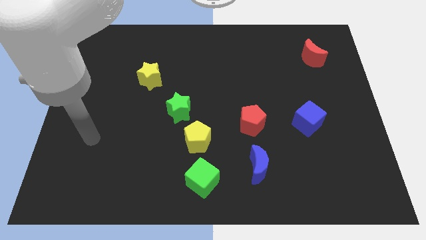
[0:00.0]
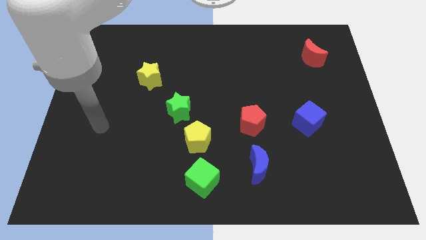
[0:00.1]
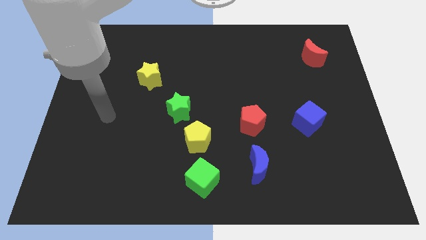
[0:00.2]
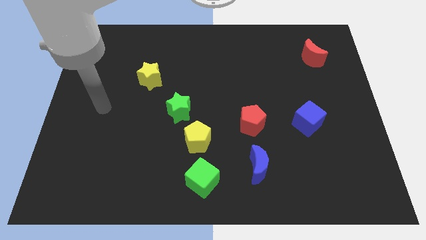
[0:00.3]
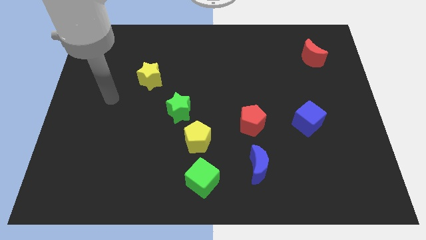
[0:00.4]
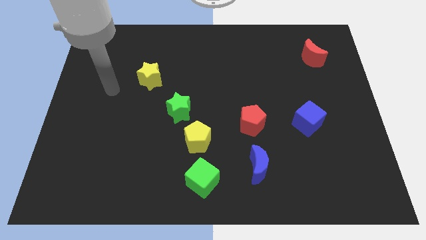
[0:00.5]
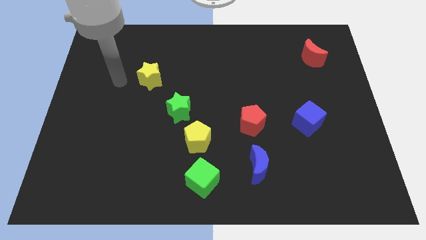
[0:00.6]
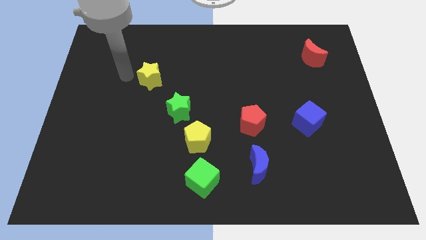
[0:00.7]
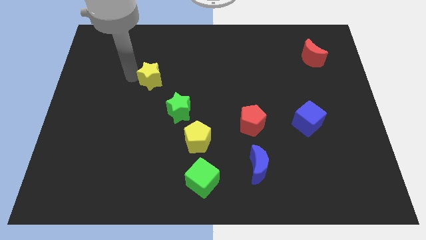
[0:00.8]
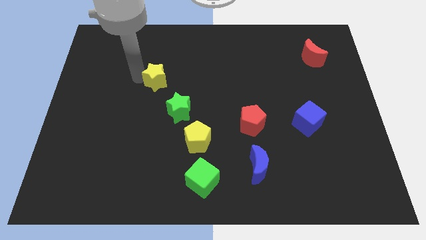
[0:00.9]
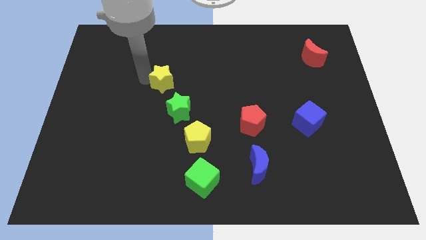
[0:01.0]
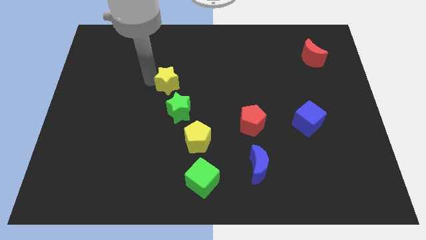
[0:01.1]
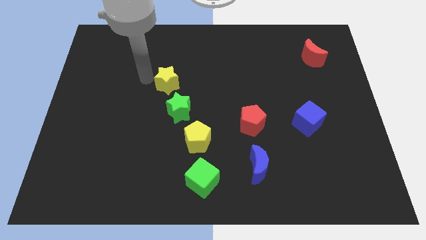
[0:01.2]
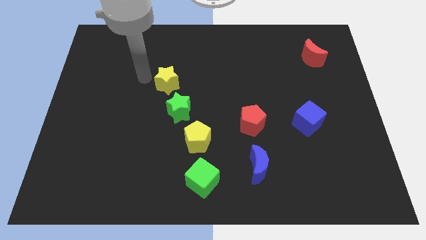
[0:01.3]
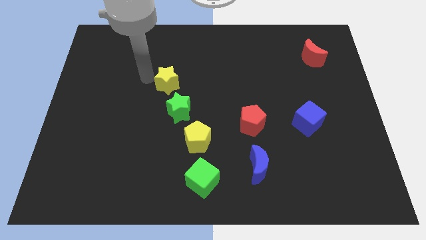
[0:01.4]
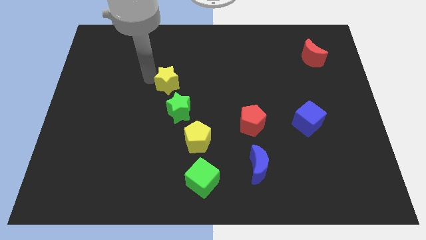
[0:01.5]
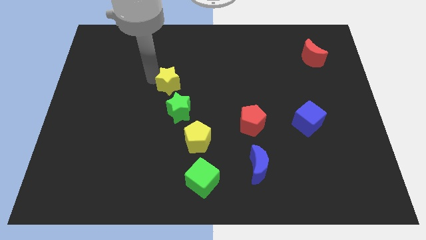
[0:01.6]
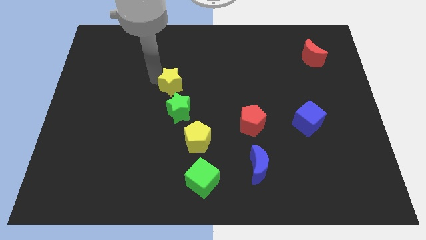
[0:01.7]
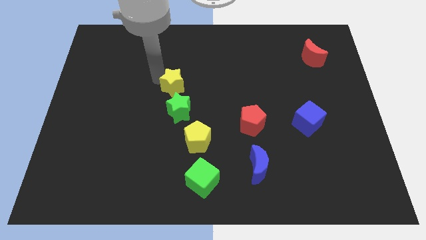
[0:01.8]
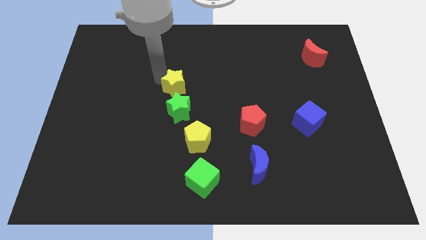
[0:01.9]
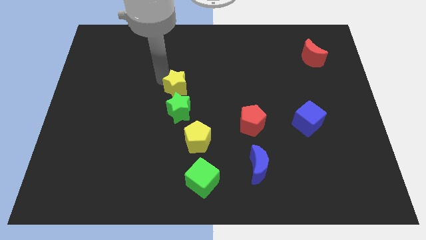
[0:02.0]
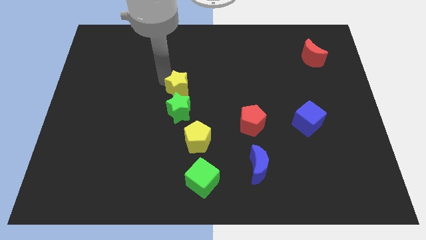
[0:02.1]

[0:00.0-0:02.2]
slightly slide the yellow star diagonally down and right

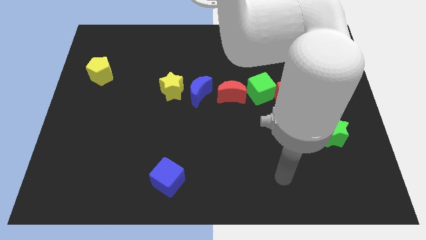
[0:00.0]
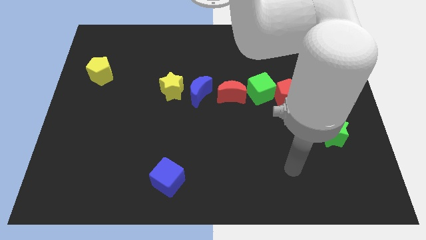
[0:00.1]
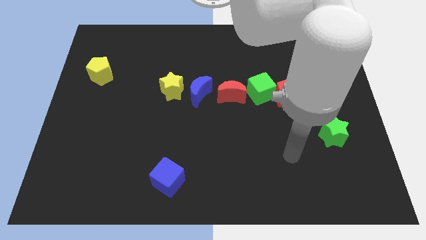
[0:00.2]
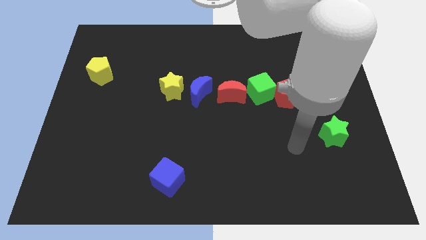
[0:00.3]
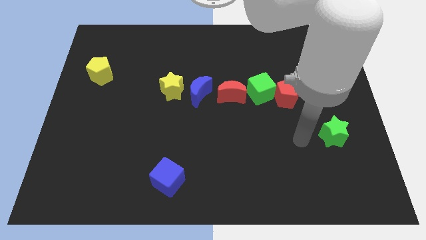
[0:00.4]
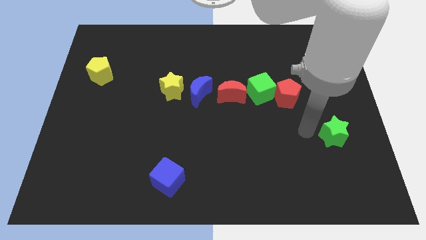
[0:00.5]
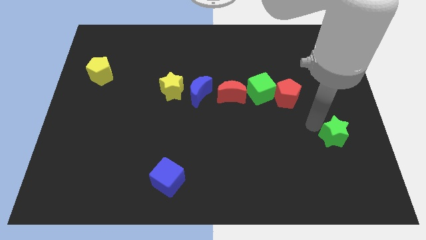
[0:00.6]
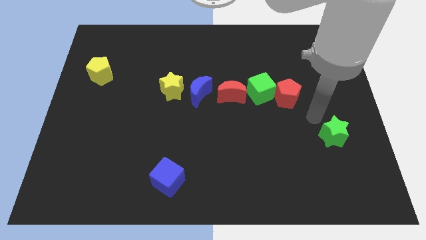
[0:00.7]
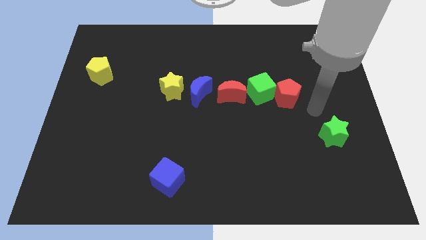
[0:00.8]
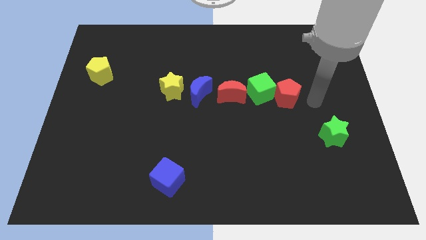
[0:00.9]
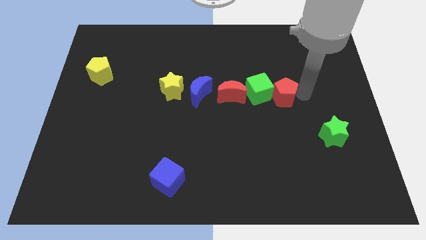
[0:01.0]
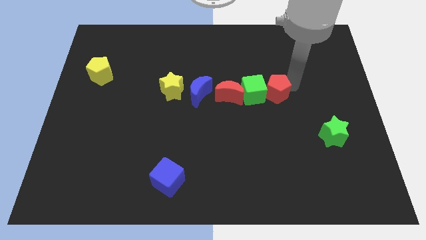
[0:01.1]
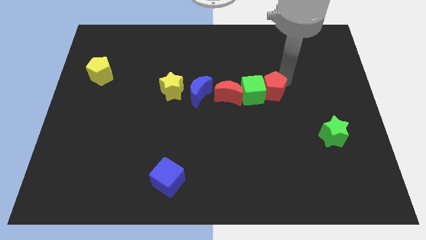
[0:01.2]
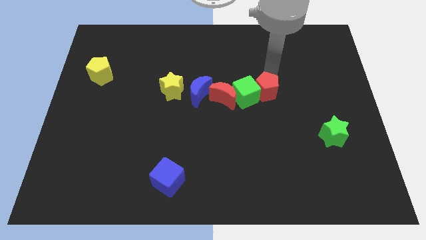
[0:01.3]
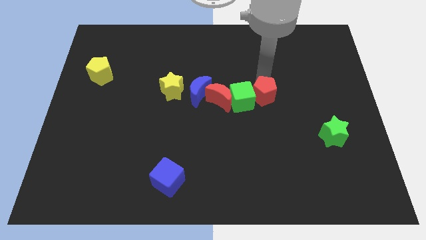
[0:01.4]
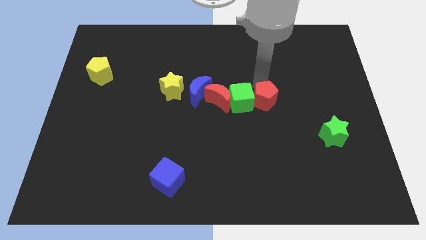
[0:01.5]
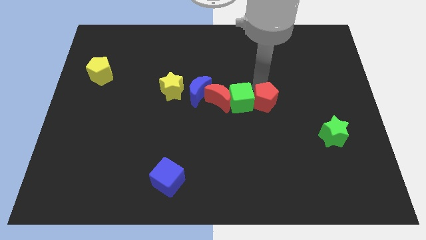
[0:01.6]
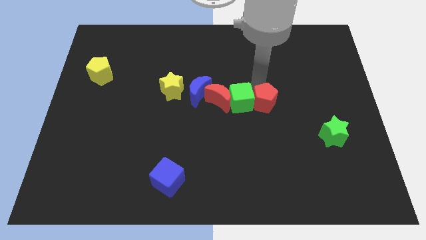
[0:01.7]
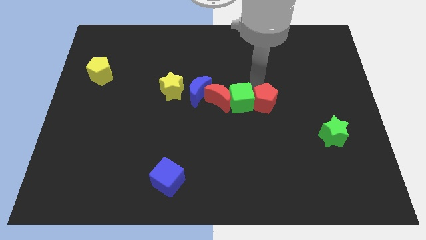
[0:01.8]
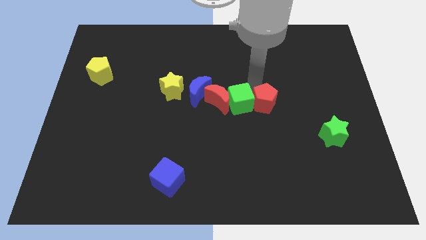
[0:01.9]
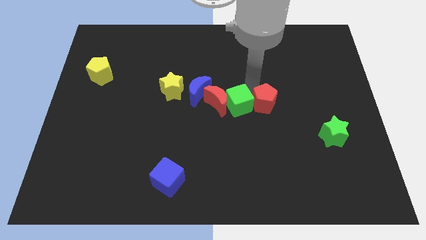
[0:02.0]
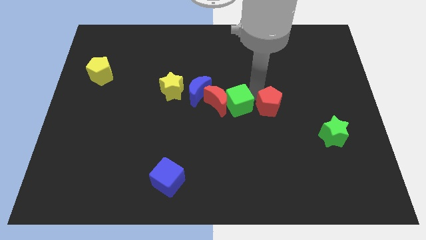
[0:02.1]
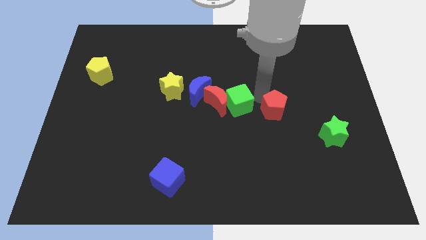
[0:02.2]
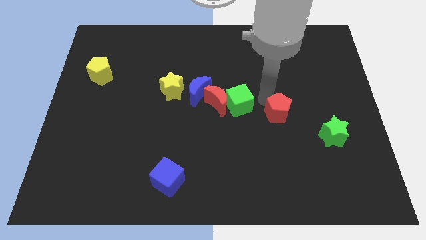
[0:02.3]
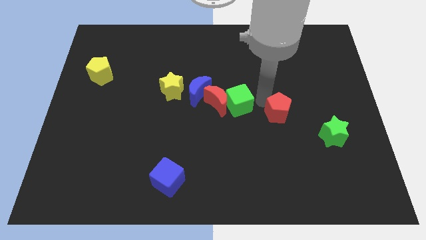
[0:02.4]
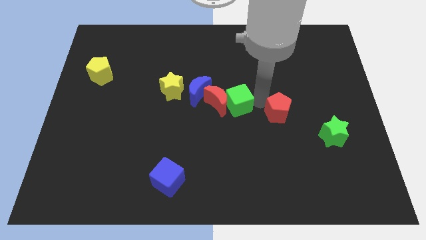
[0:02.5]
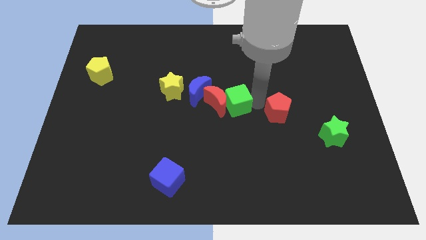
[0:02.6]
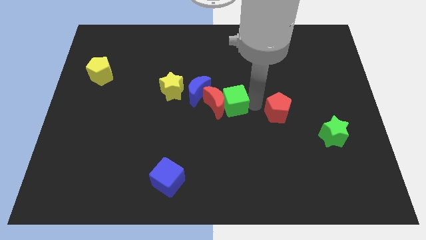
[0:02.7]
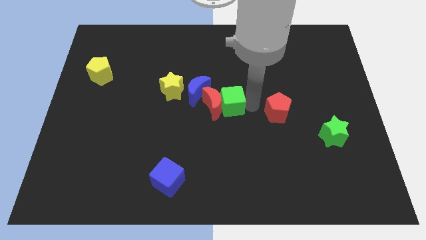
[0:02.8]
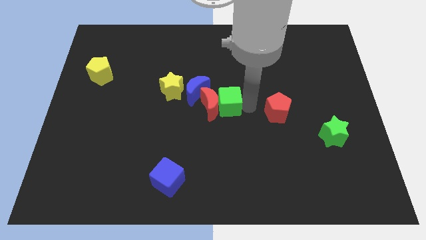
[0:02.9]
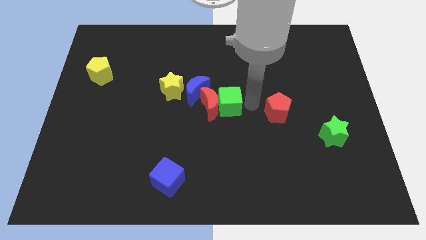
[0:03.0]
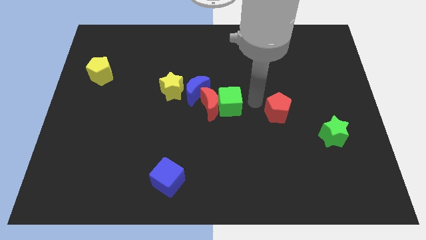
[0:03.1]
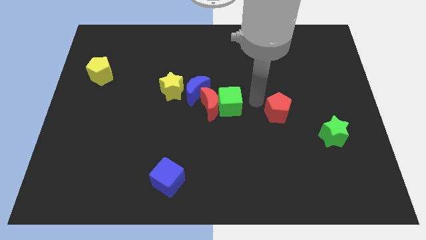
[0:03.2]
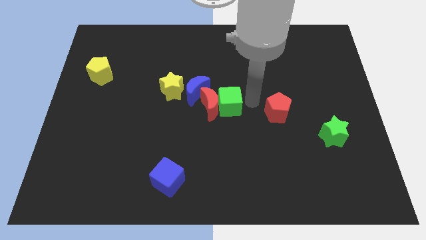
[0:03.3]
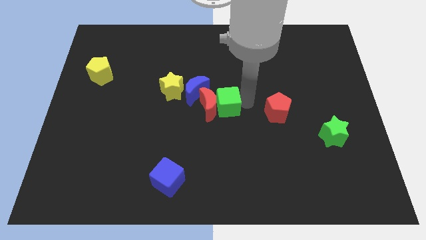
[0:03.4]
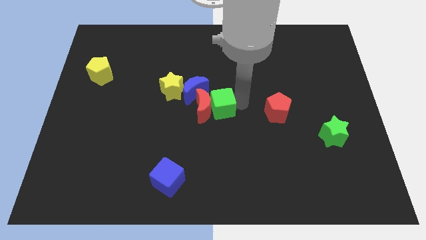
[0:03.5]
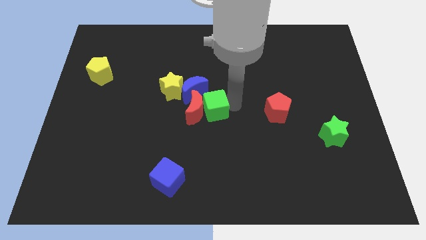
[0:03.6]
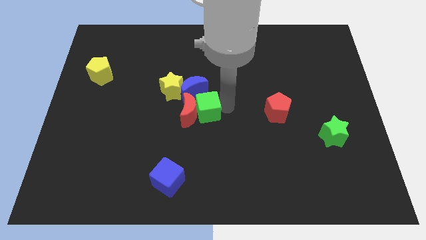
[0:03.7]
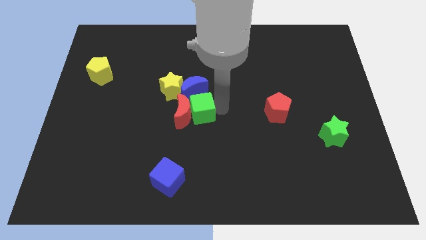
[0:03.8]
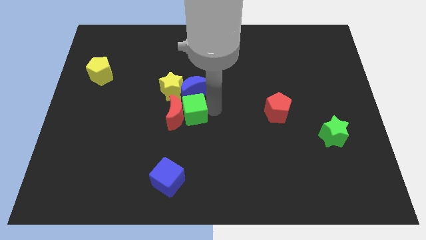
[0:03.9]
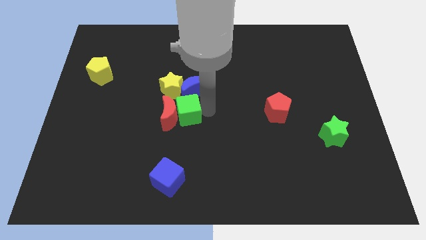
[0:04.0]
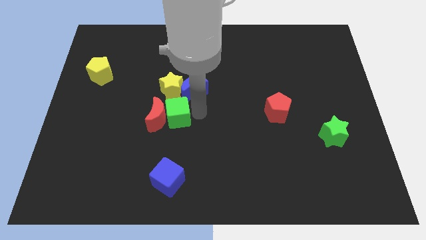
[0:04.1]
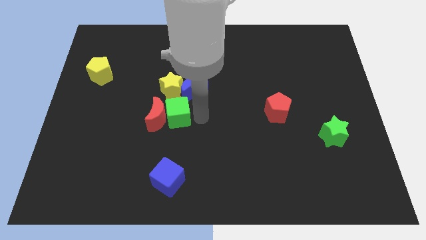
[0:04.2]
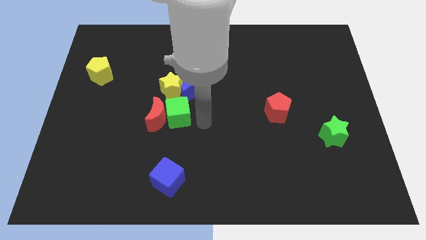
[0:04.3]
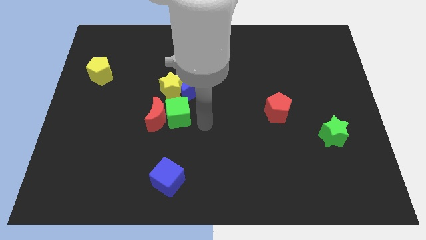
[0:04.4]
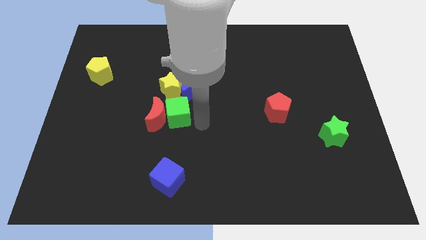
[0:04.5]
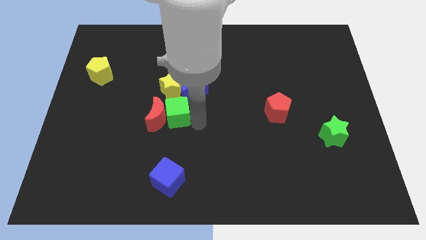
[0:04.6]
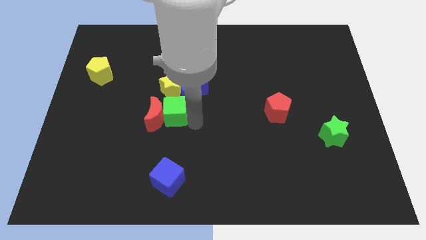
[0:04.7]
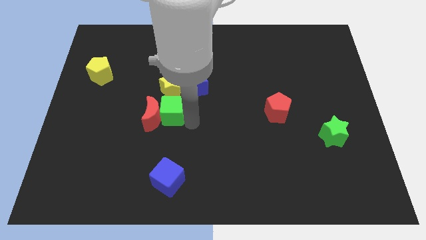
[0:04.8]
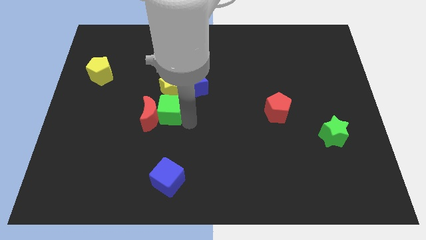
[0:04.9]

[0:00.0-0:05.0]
push the green cube left

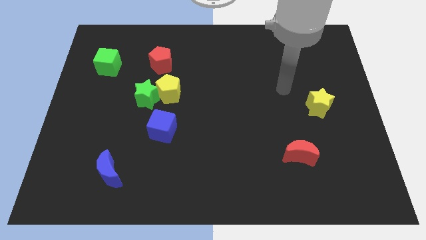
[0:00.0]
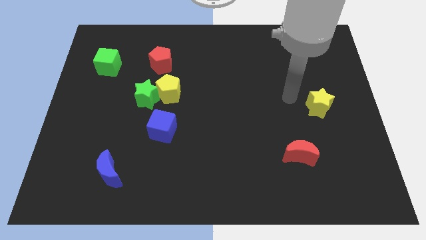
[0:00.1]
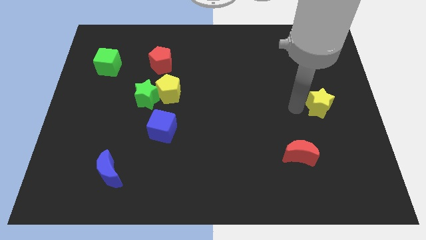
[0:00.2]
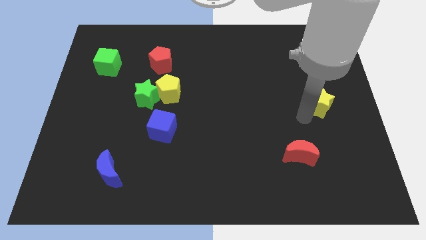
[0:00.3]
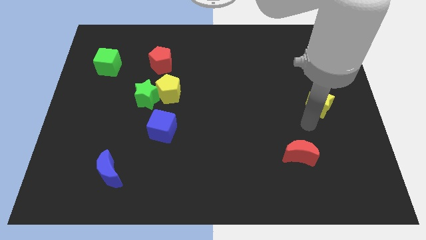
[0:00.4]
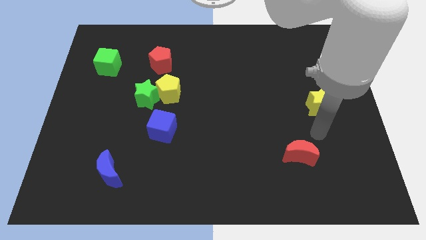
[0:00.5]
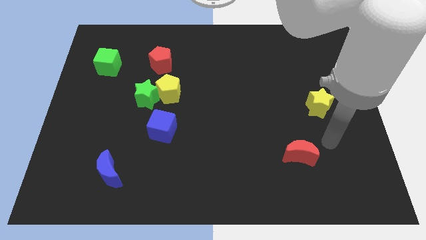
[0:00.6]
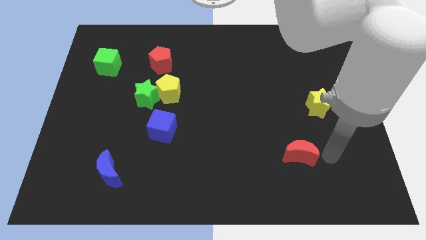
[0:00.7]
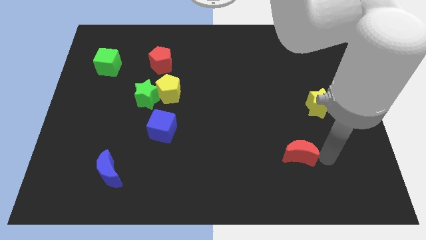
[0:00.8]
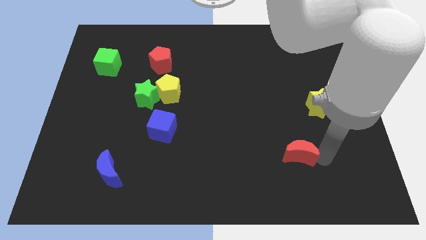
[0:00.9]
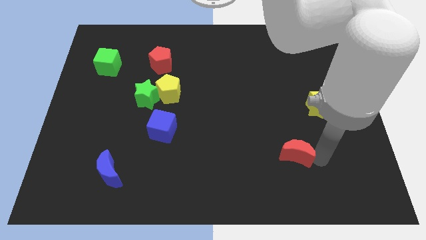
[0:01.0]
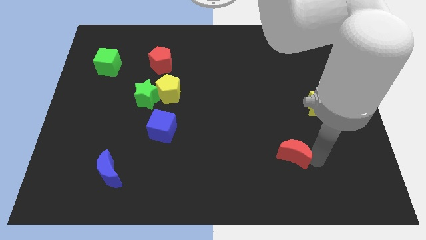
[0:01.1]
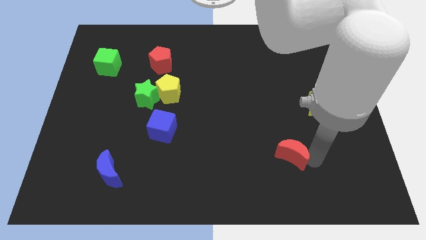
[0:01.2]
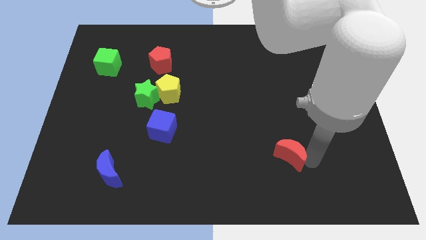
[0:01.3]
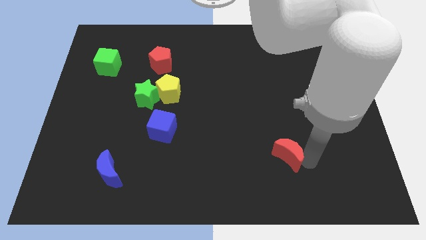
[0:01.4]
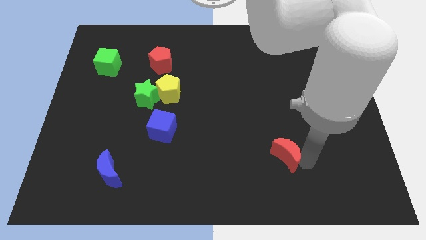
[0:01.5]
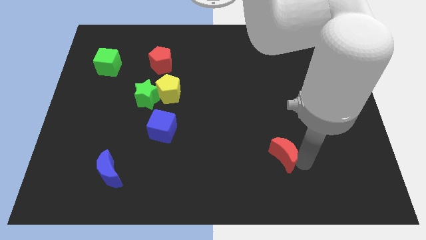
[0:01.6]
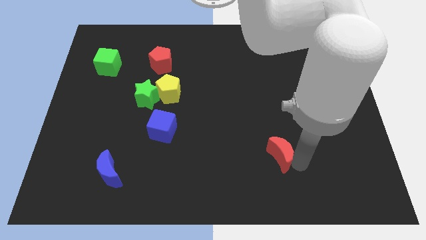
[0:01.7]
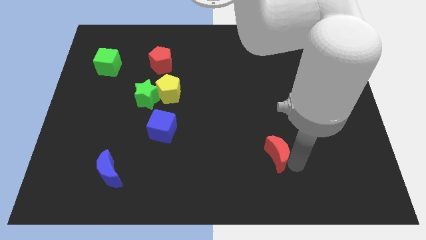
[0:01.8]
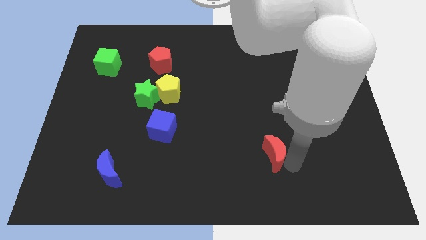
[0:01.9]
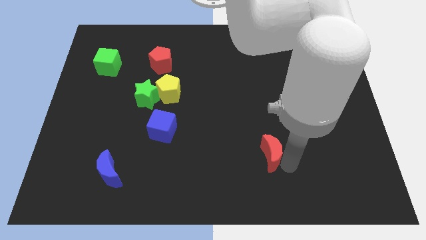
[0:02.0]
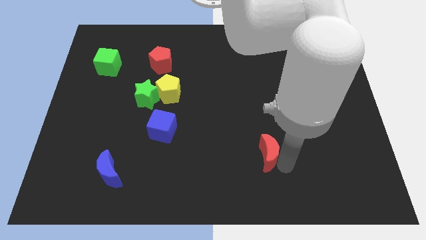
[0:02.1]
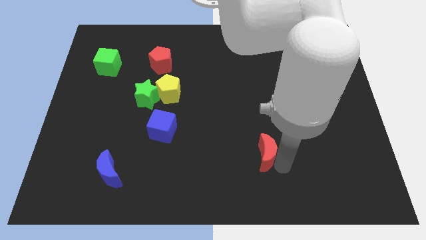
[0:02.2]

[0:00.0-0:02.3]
move the red moon a little bit left
